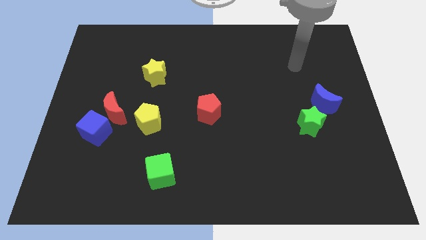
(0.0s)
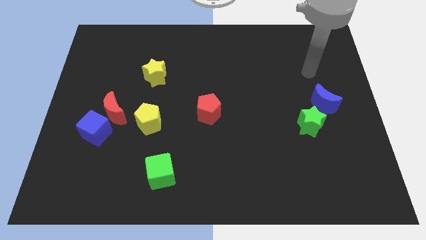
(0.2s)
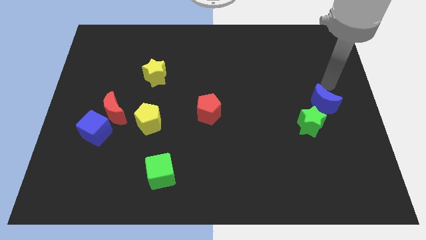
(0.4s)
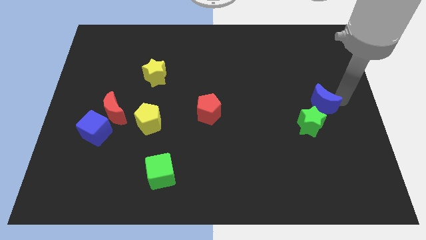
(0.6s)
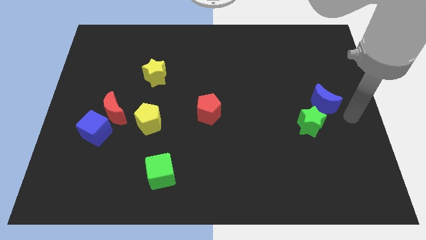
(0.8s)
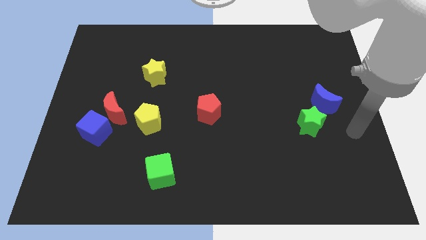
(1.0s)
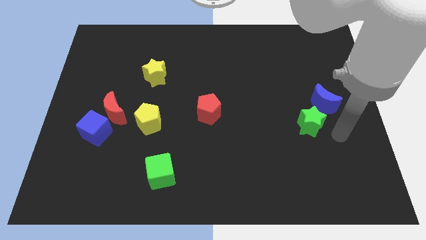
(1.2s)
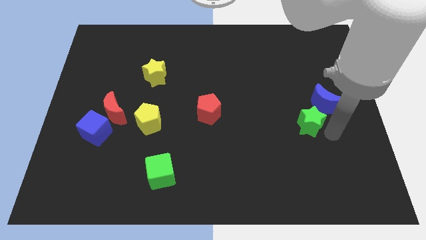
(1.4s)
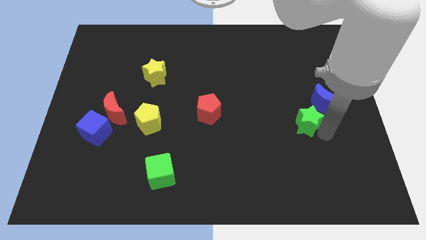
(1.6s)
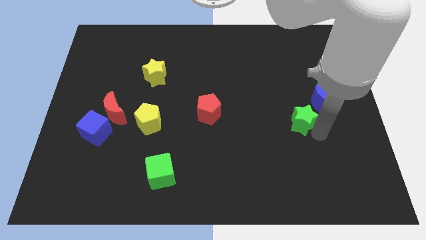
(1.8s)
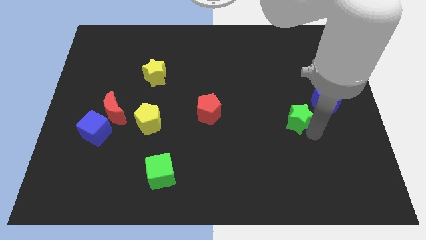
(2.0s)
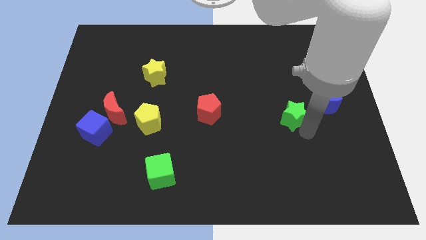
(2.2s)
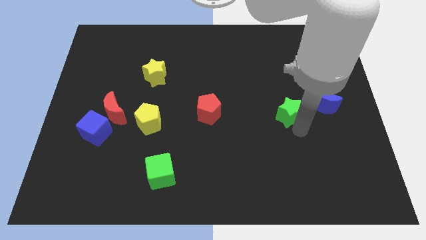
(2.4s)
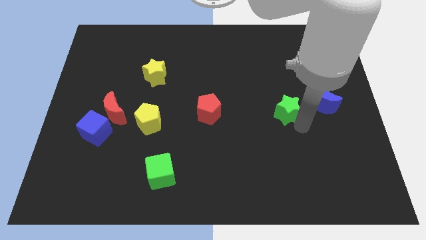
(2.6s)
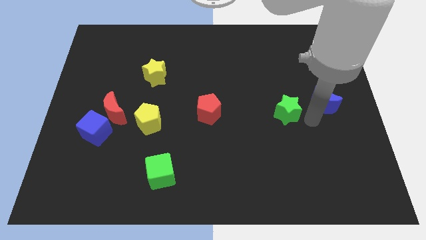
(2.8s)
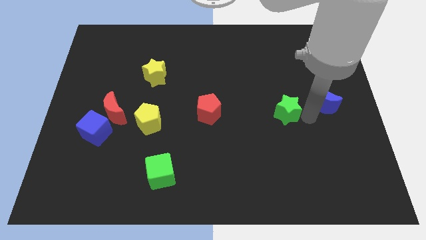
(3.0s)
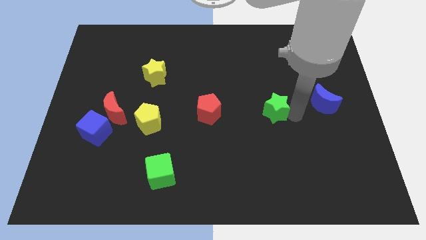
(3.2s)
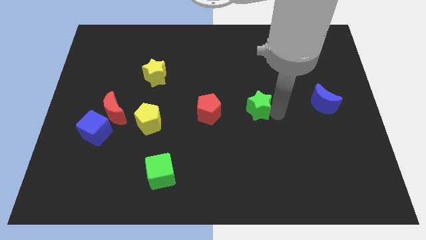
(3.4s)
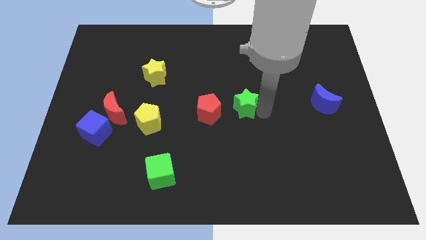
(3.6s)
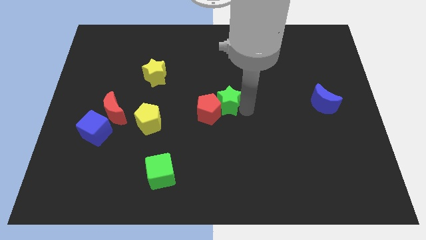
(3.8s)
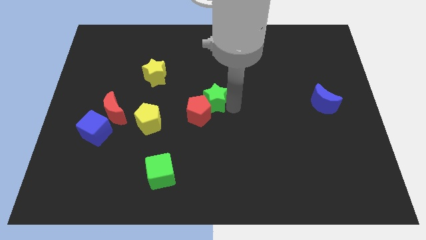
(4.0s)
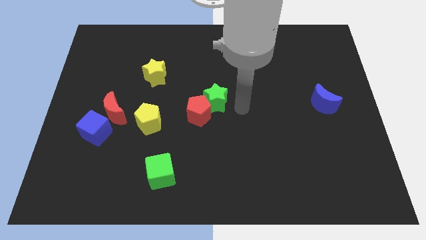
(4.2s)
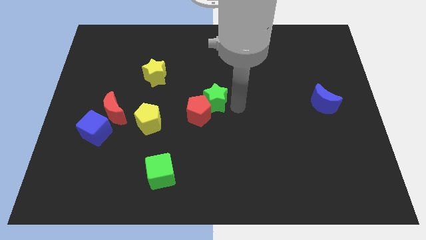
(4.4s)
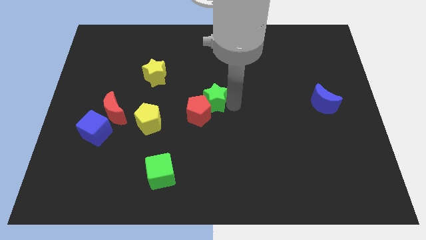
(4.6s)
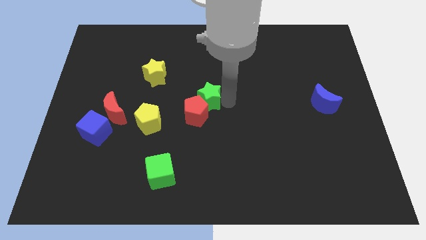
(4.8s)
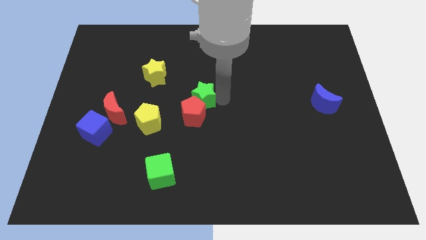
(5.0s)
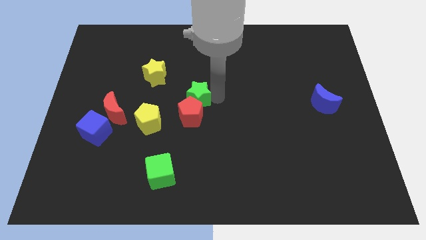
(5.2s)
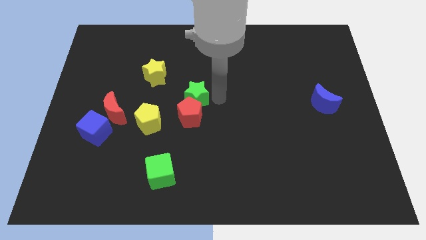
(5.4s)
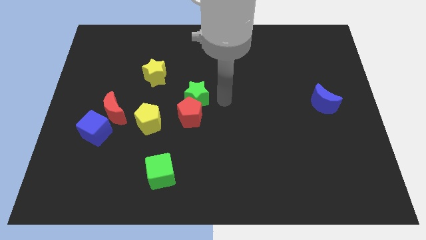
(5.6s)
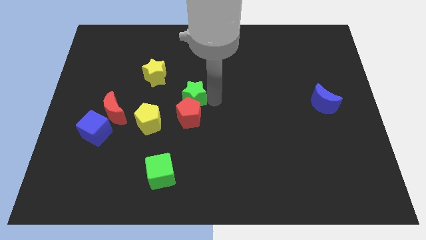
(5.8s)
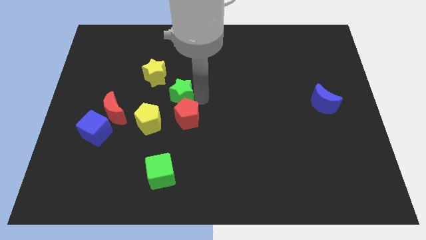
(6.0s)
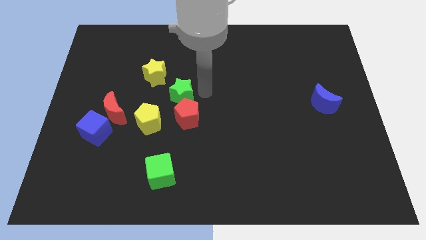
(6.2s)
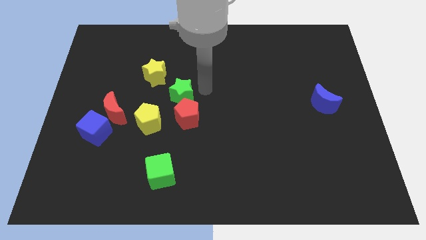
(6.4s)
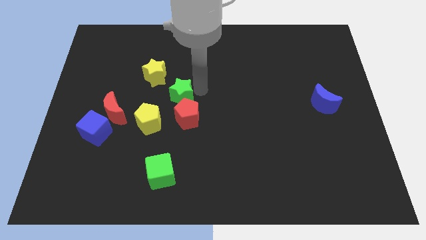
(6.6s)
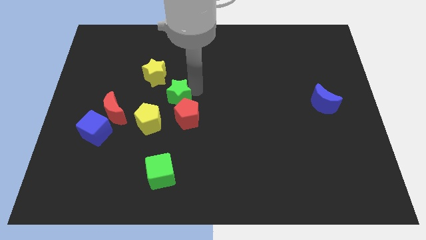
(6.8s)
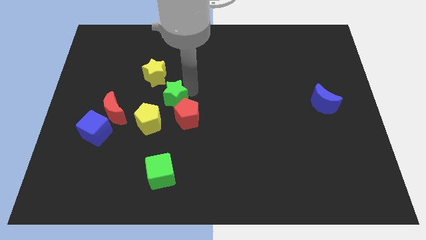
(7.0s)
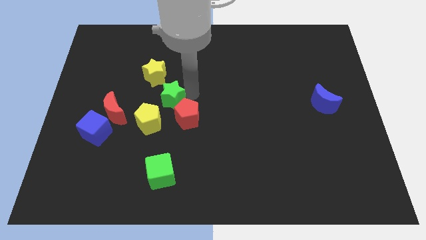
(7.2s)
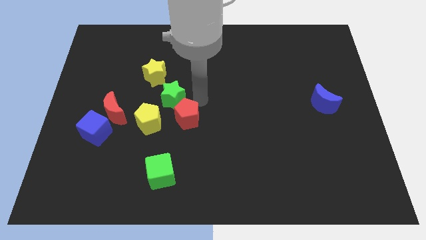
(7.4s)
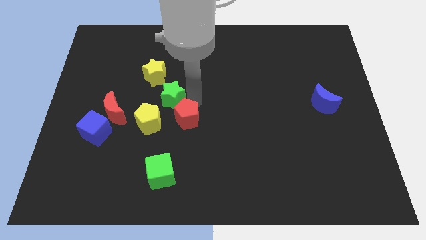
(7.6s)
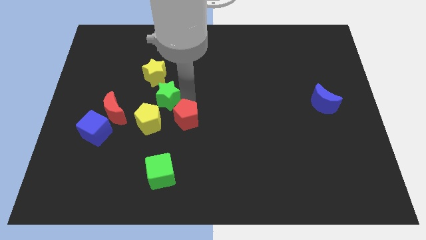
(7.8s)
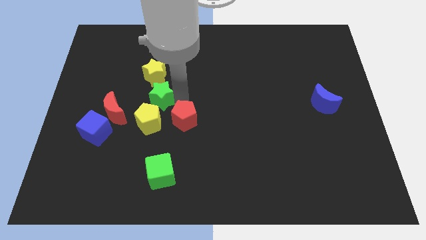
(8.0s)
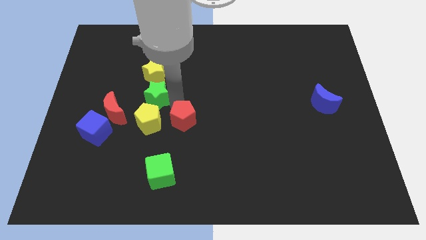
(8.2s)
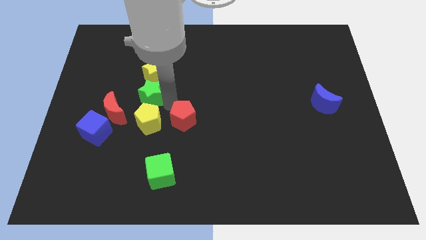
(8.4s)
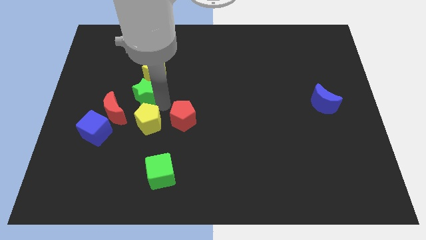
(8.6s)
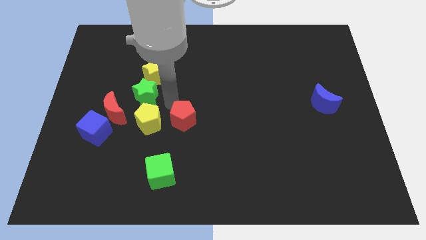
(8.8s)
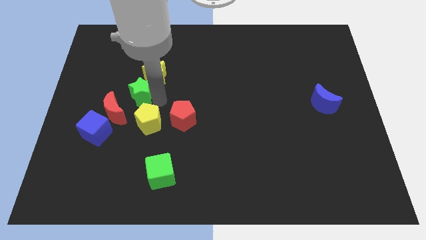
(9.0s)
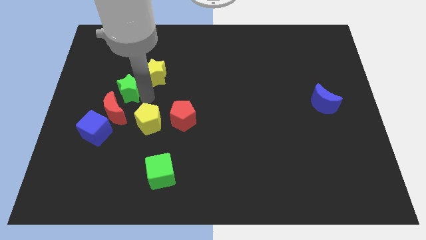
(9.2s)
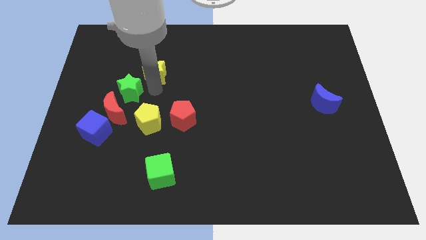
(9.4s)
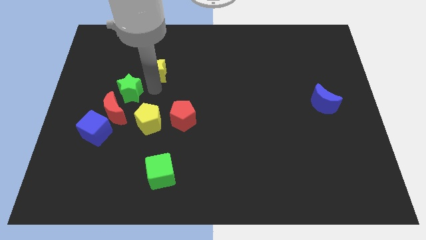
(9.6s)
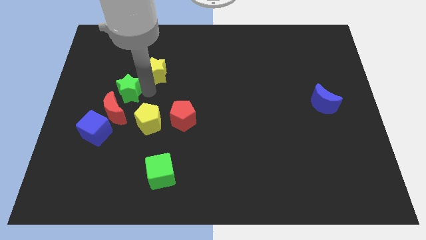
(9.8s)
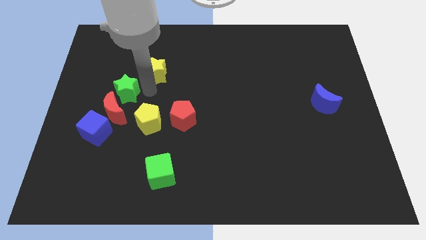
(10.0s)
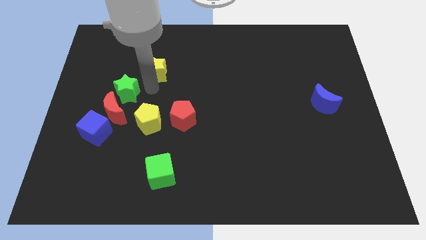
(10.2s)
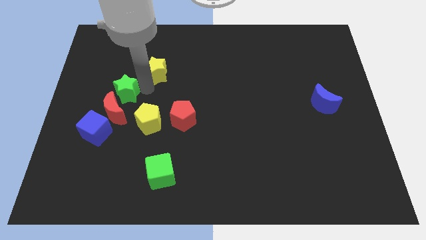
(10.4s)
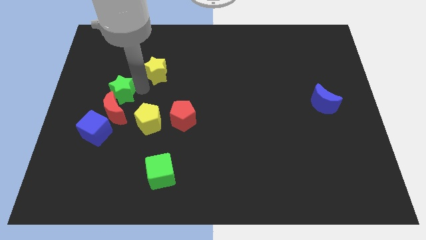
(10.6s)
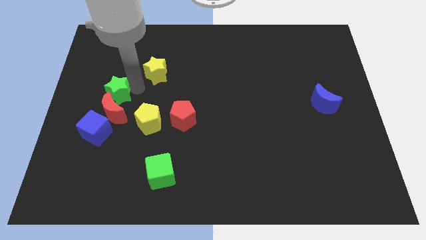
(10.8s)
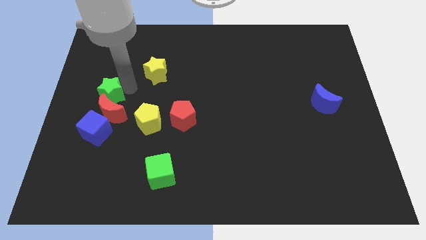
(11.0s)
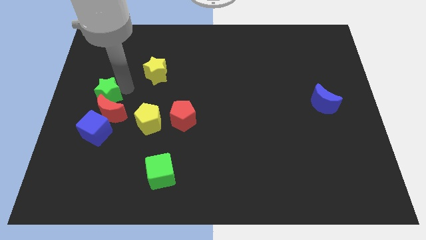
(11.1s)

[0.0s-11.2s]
push the green star to the left side

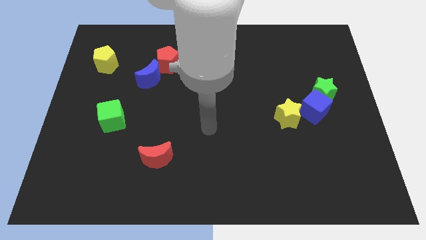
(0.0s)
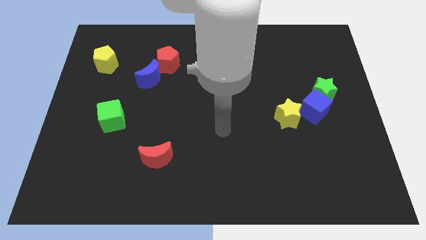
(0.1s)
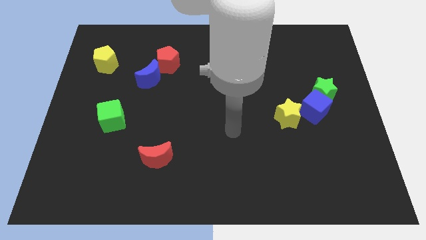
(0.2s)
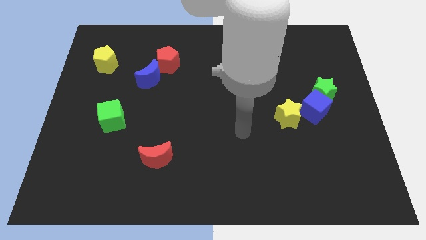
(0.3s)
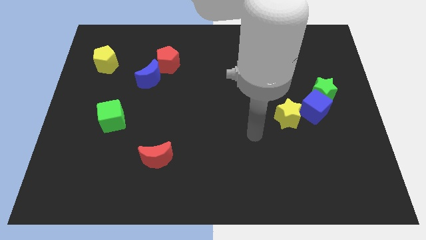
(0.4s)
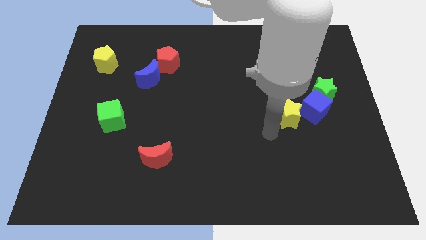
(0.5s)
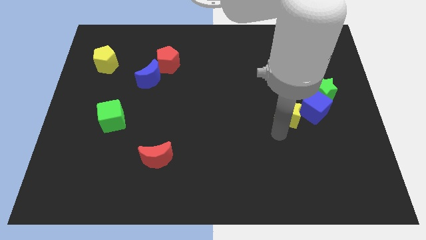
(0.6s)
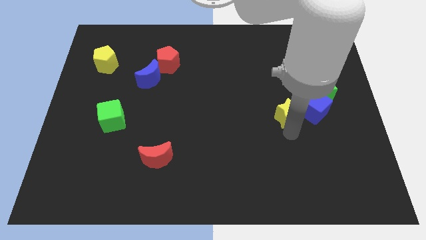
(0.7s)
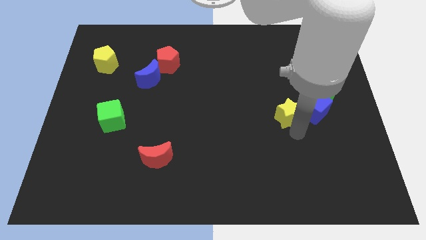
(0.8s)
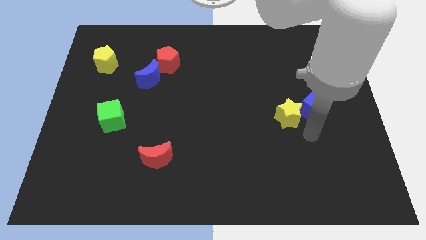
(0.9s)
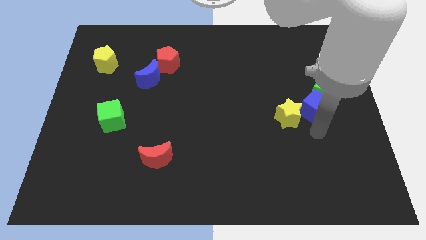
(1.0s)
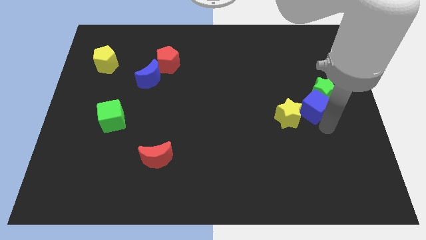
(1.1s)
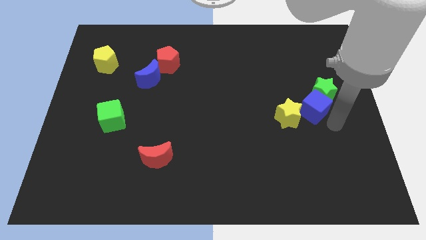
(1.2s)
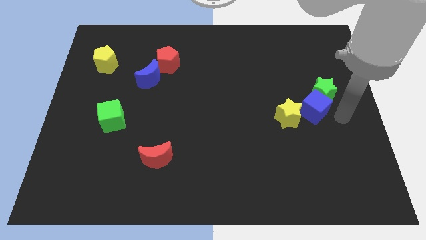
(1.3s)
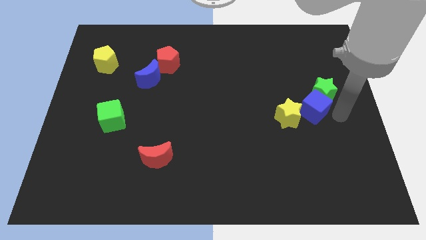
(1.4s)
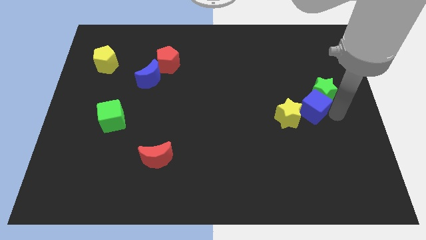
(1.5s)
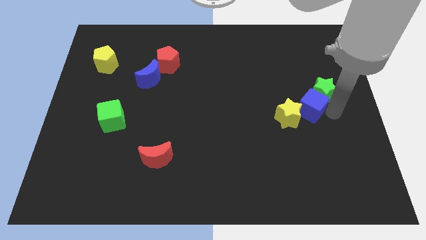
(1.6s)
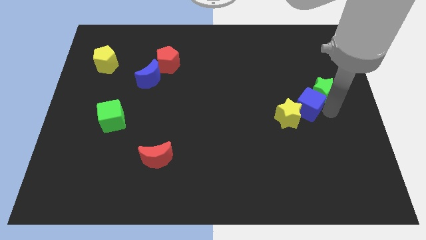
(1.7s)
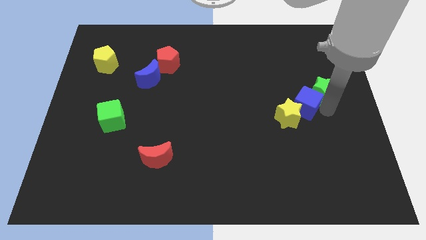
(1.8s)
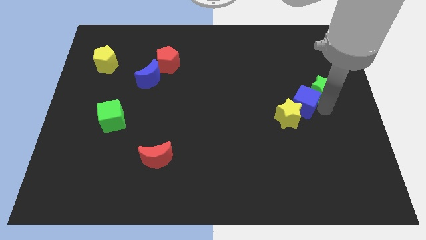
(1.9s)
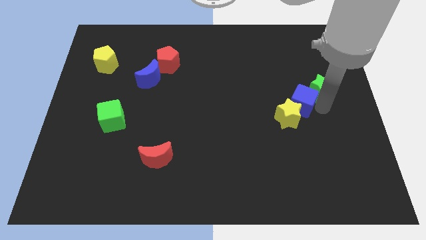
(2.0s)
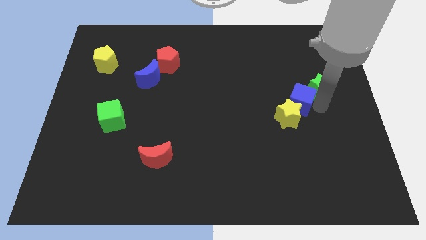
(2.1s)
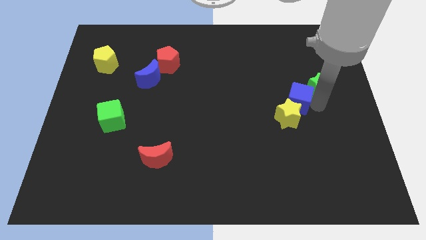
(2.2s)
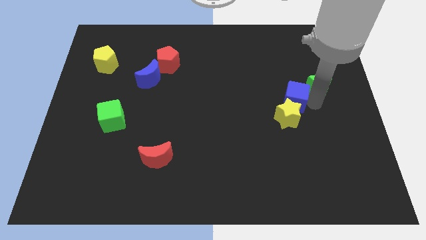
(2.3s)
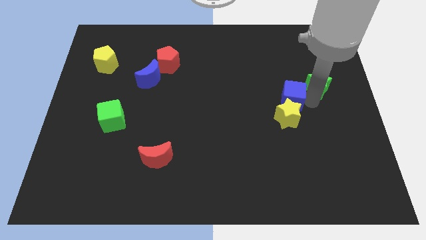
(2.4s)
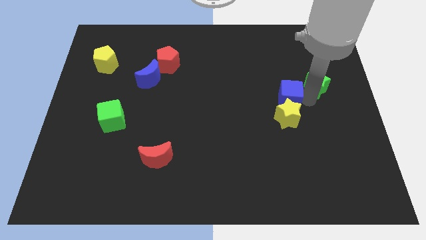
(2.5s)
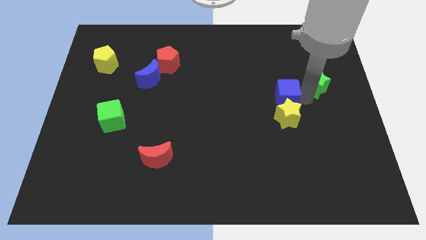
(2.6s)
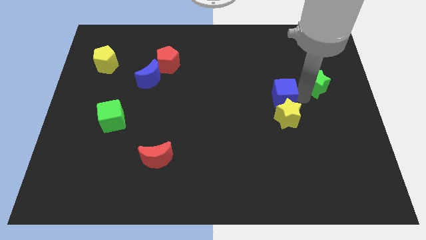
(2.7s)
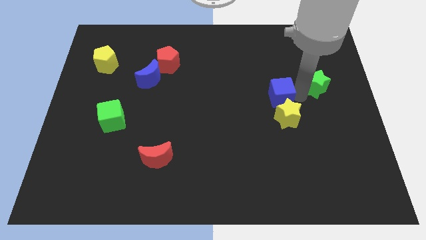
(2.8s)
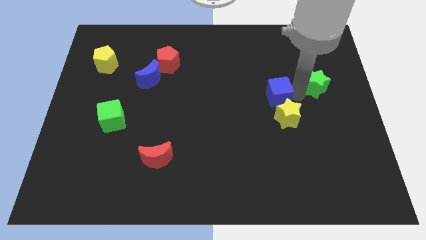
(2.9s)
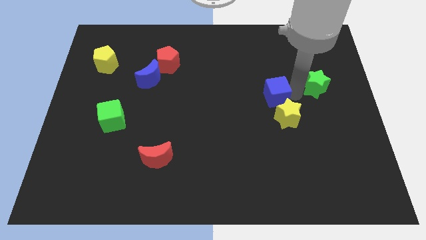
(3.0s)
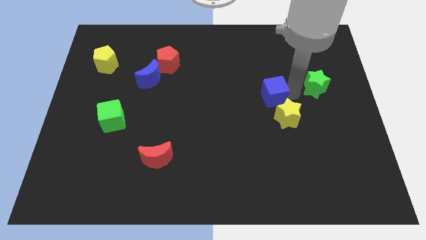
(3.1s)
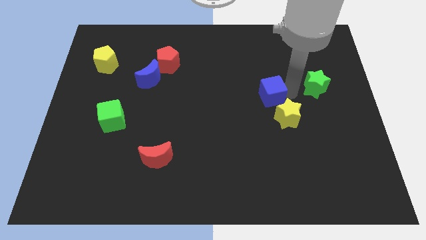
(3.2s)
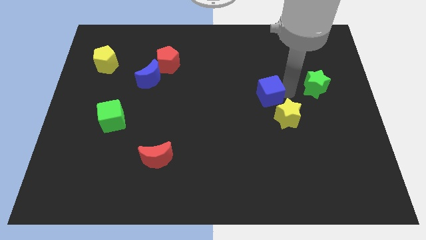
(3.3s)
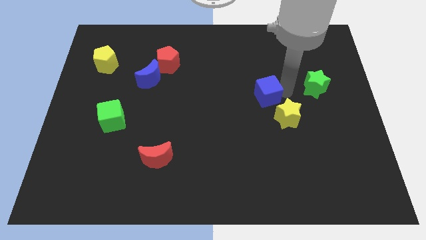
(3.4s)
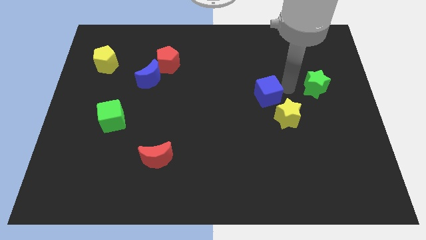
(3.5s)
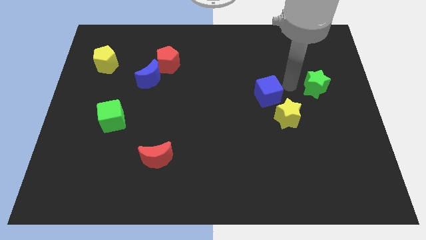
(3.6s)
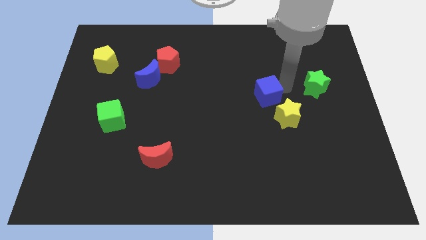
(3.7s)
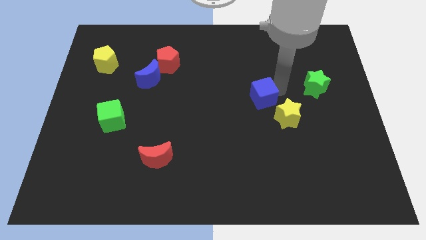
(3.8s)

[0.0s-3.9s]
move the blue cube to the center
